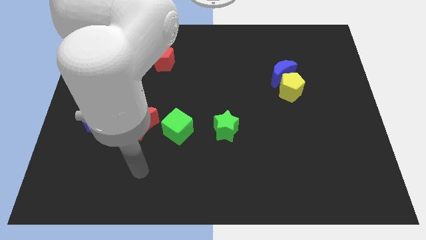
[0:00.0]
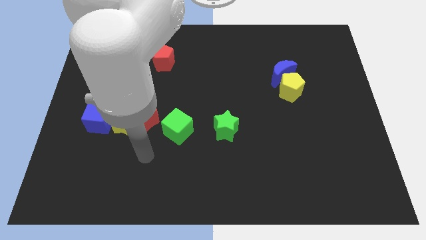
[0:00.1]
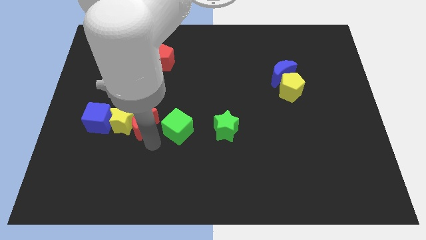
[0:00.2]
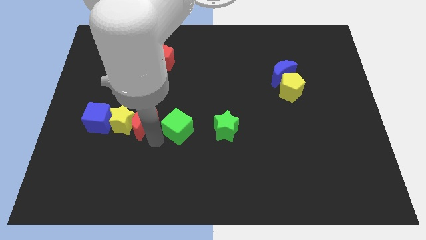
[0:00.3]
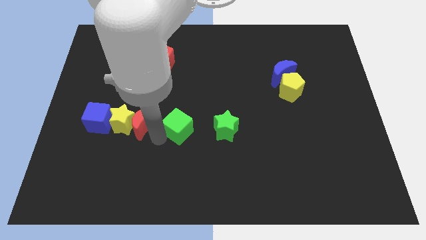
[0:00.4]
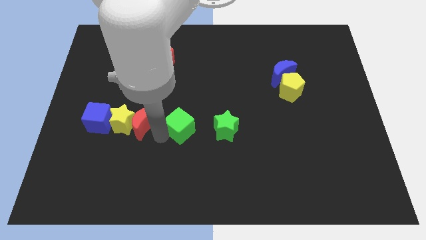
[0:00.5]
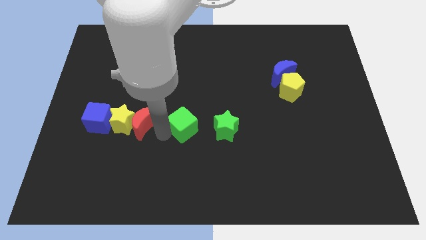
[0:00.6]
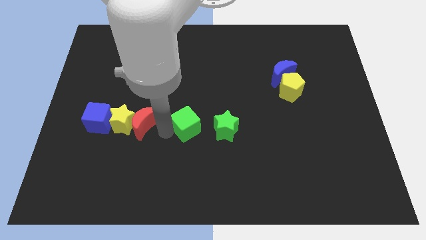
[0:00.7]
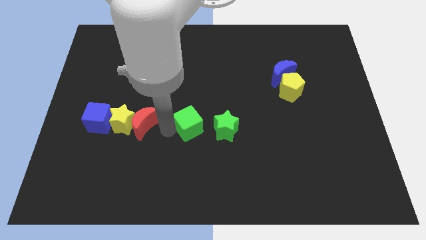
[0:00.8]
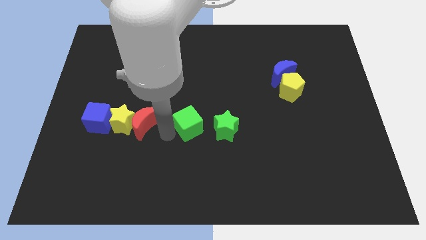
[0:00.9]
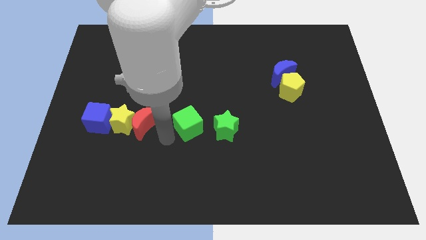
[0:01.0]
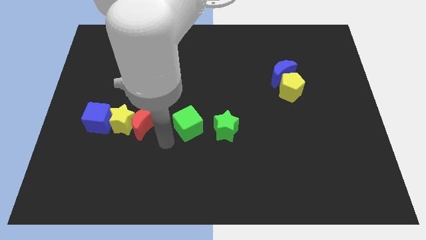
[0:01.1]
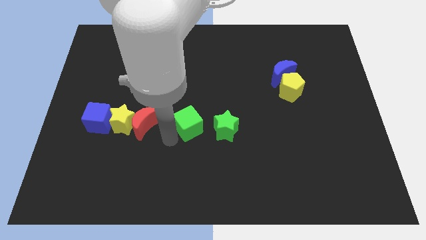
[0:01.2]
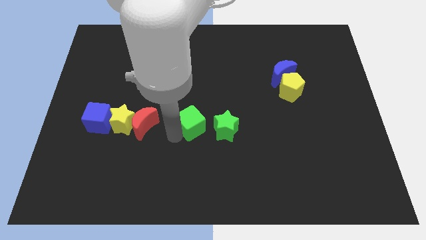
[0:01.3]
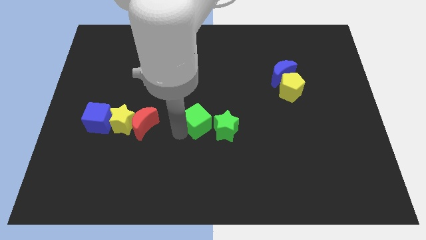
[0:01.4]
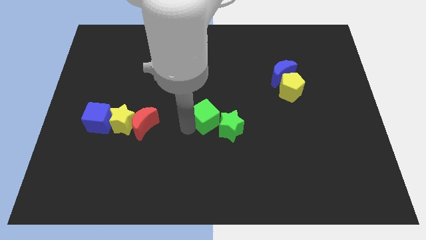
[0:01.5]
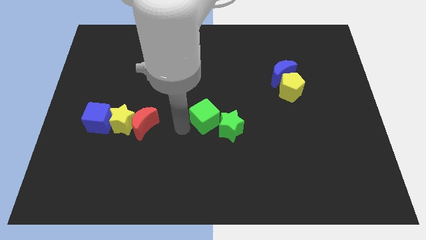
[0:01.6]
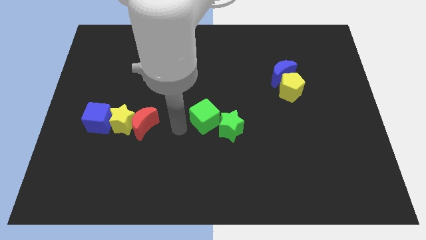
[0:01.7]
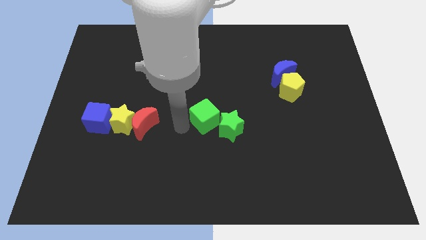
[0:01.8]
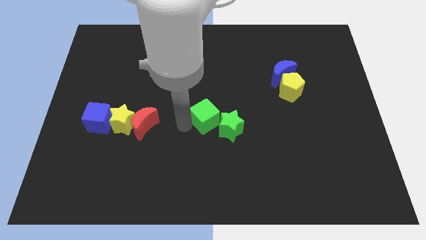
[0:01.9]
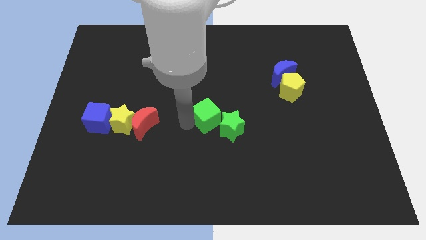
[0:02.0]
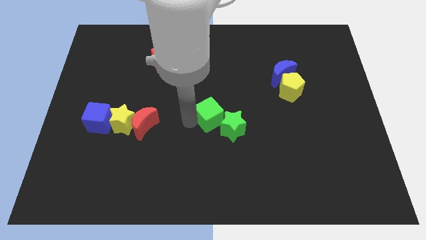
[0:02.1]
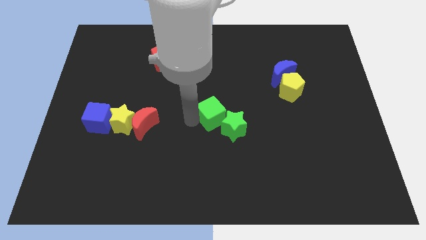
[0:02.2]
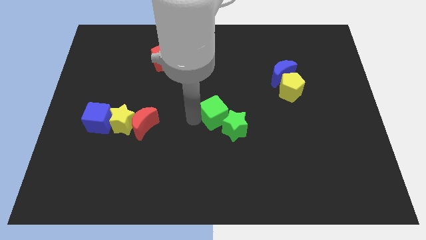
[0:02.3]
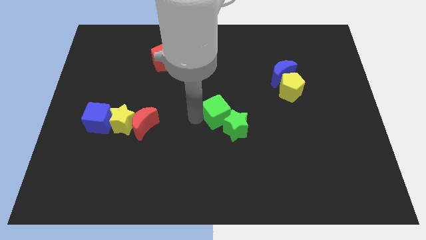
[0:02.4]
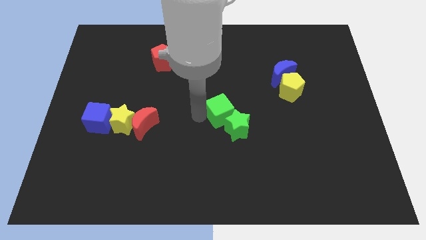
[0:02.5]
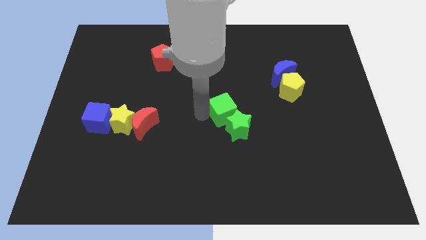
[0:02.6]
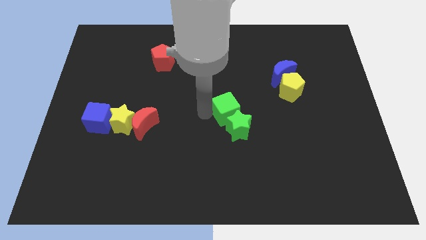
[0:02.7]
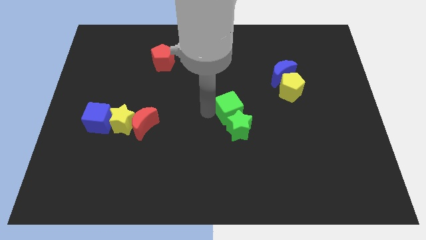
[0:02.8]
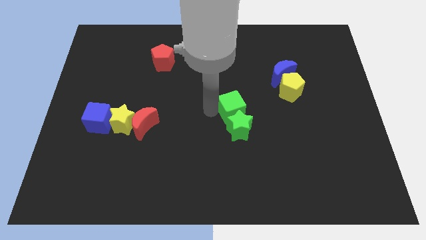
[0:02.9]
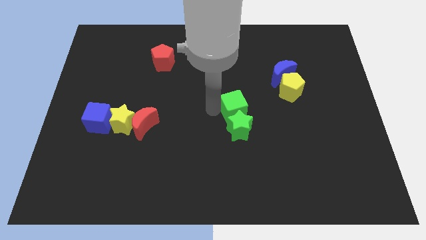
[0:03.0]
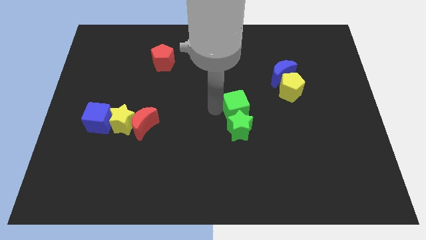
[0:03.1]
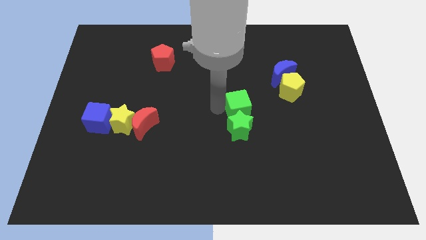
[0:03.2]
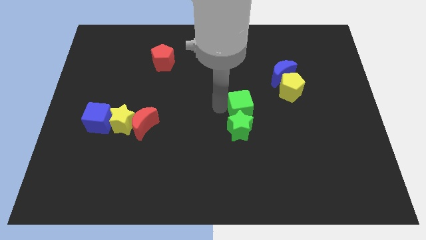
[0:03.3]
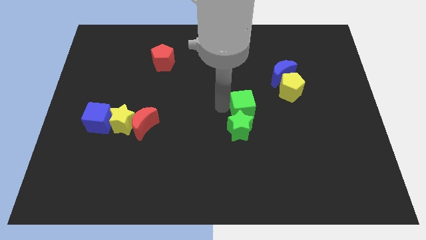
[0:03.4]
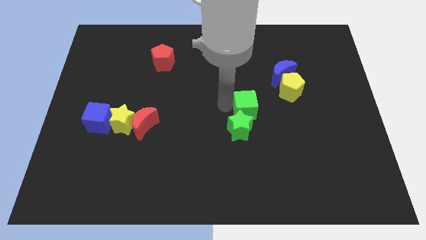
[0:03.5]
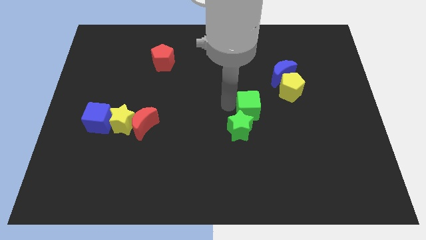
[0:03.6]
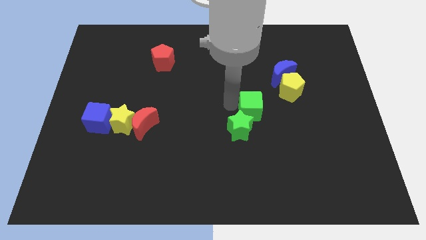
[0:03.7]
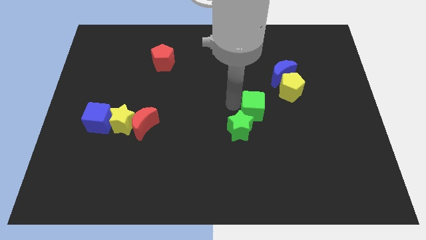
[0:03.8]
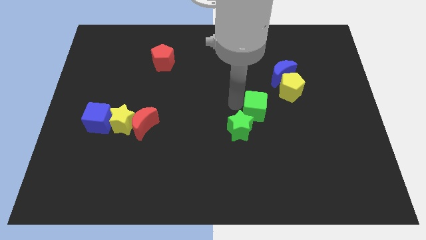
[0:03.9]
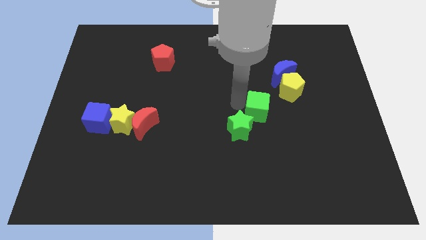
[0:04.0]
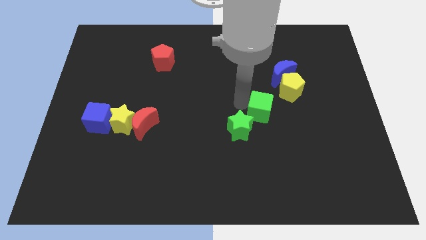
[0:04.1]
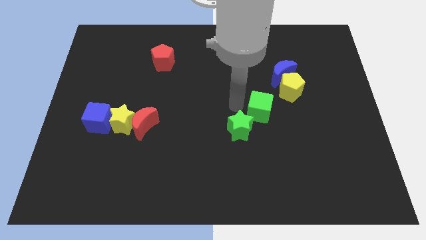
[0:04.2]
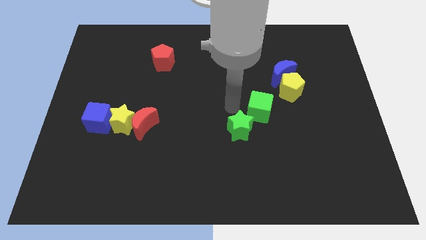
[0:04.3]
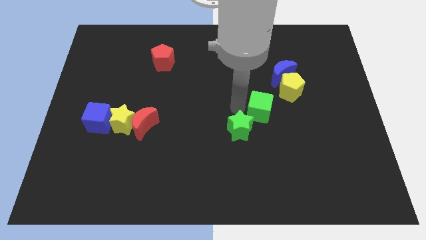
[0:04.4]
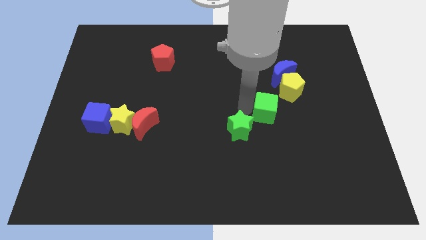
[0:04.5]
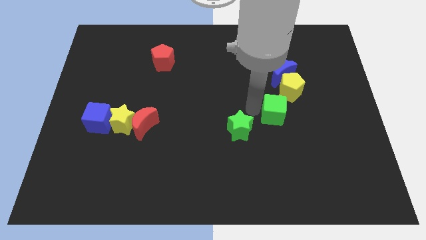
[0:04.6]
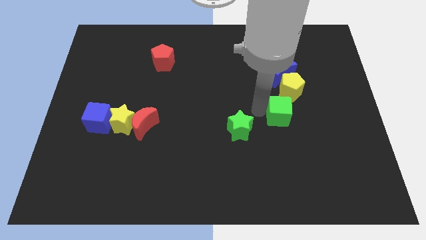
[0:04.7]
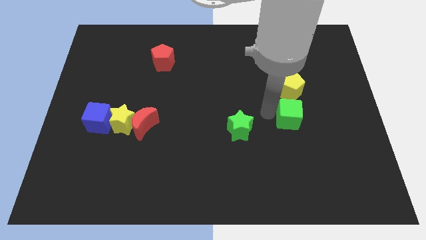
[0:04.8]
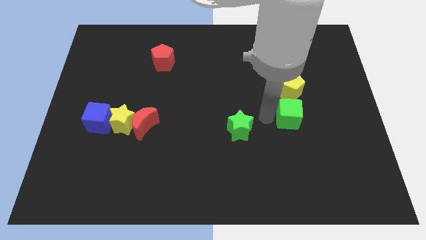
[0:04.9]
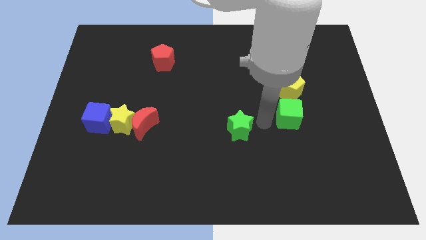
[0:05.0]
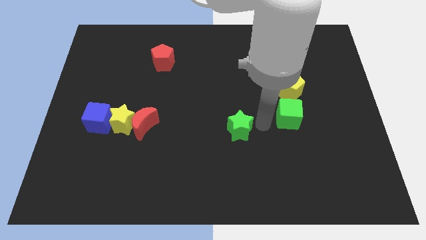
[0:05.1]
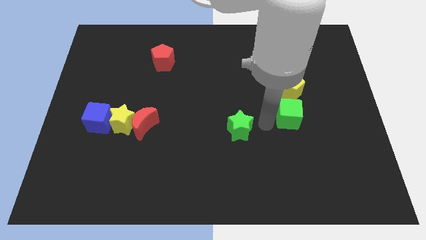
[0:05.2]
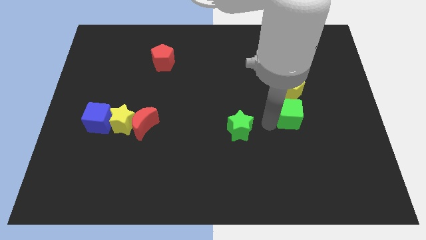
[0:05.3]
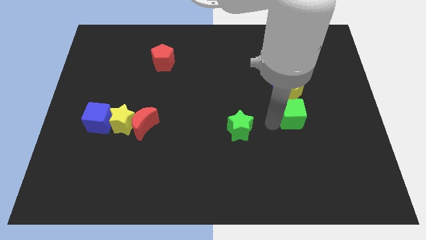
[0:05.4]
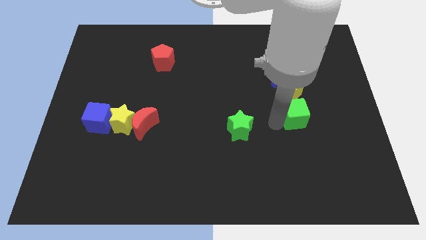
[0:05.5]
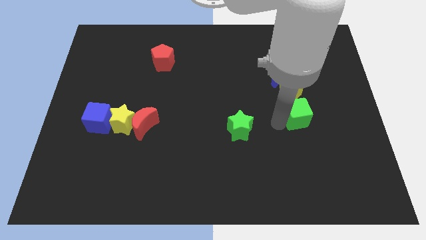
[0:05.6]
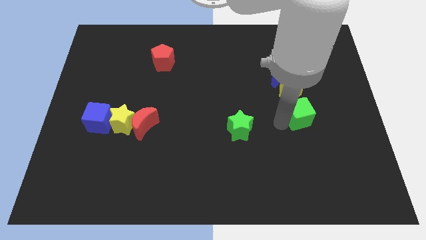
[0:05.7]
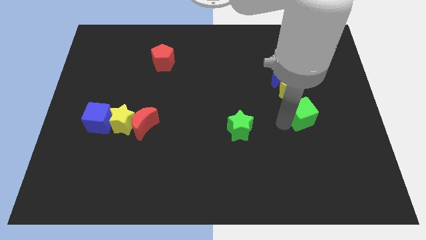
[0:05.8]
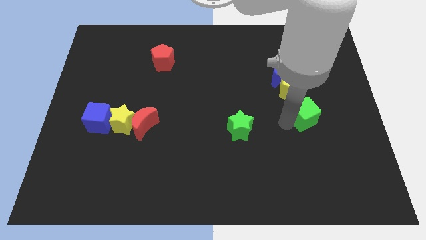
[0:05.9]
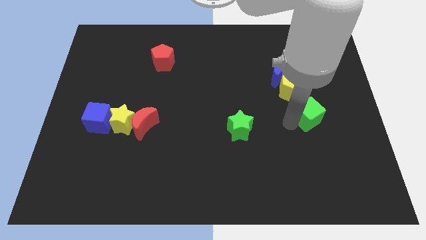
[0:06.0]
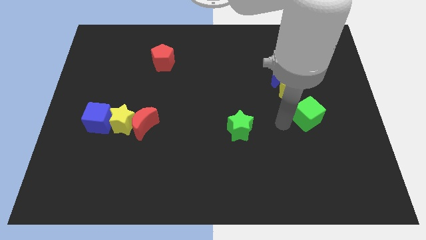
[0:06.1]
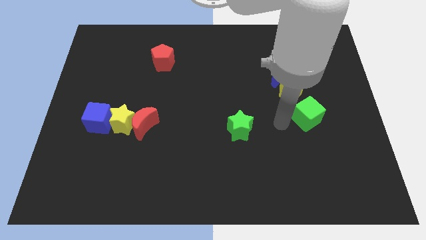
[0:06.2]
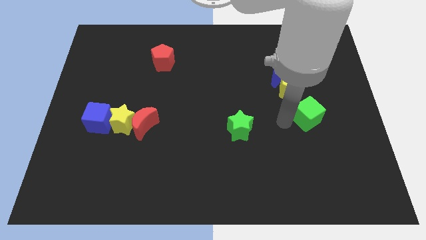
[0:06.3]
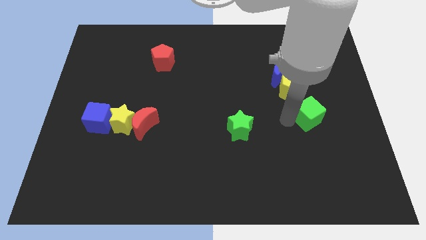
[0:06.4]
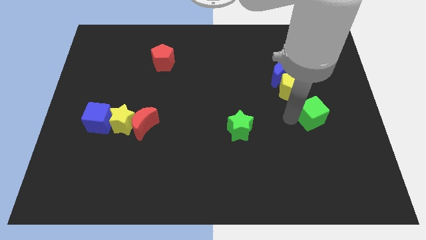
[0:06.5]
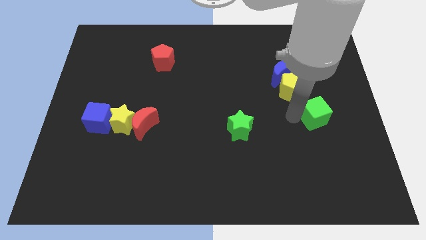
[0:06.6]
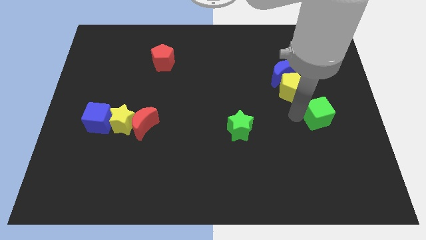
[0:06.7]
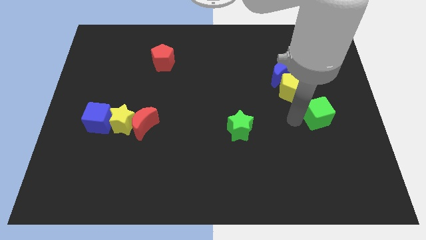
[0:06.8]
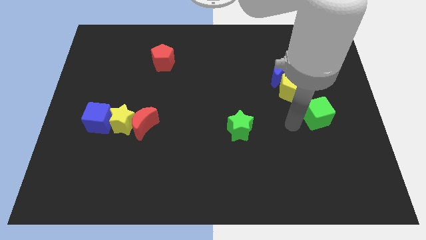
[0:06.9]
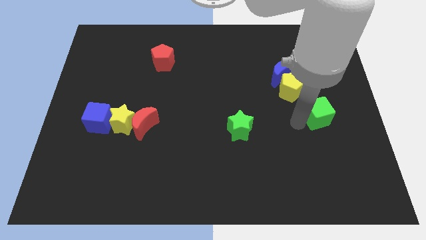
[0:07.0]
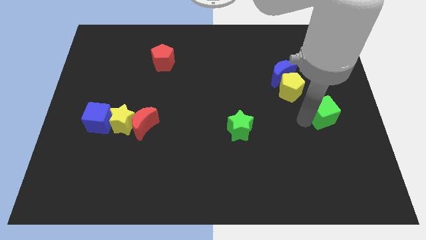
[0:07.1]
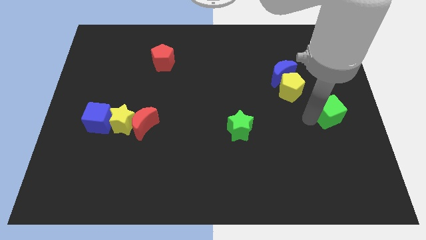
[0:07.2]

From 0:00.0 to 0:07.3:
put the green cube to the right side of the board
